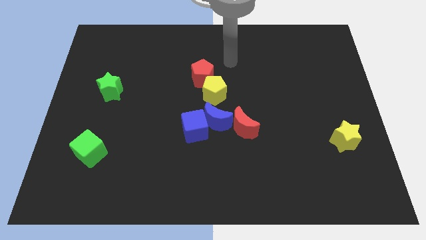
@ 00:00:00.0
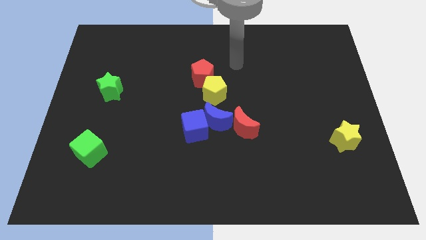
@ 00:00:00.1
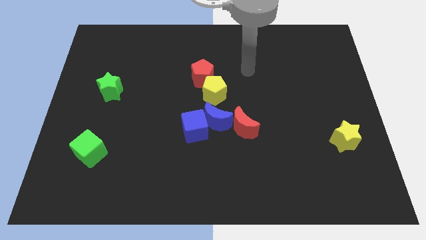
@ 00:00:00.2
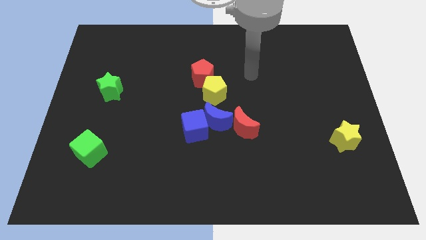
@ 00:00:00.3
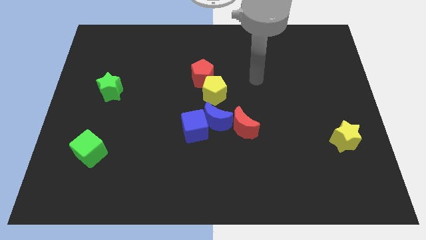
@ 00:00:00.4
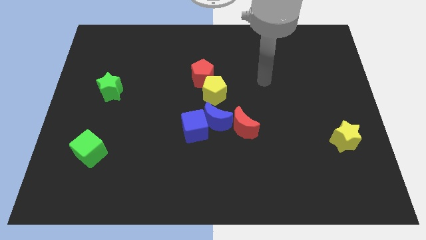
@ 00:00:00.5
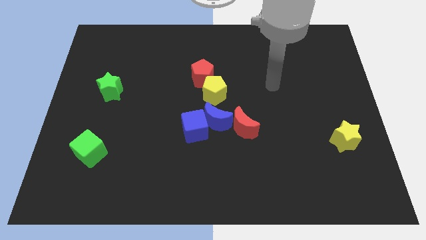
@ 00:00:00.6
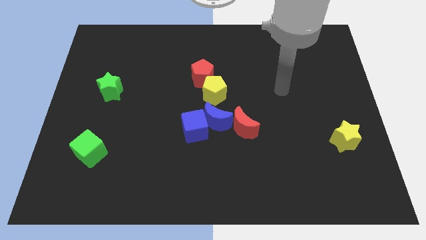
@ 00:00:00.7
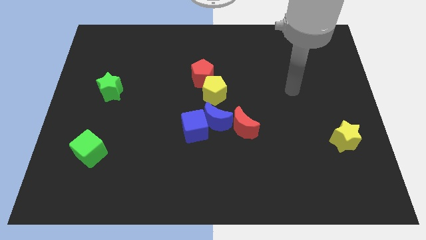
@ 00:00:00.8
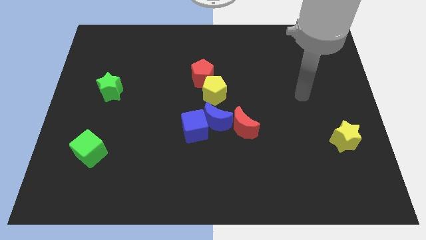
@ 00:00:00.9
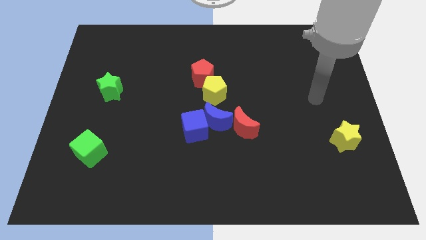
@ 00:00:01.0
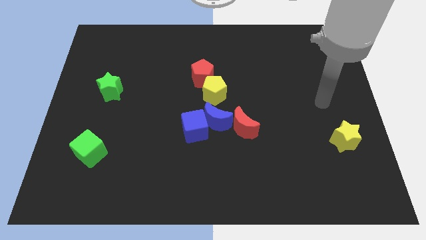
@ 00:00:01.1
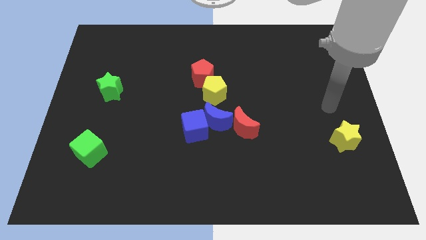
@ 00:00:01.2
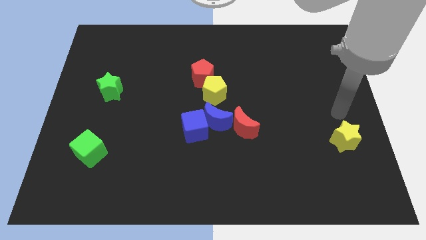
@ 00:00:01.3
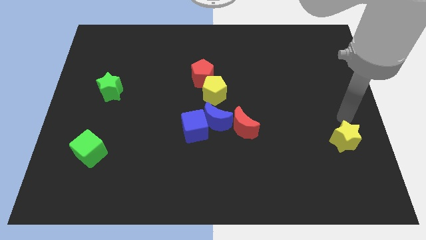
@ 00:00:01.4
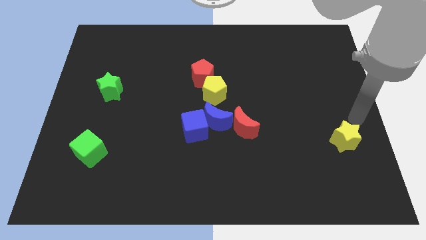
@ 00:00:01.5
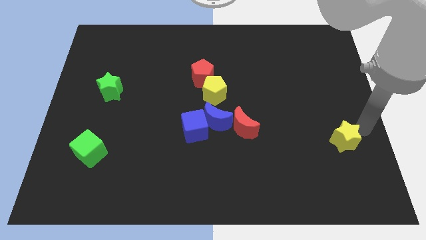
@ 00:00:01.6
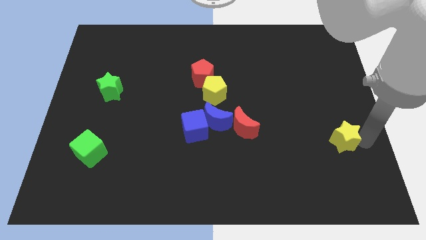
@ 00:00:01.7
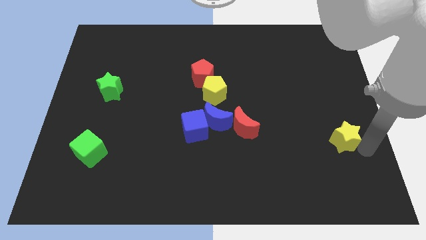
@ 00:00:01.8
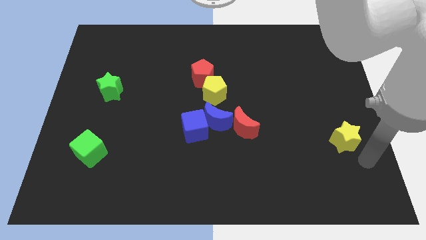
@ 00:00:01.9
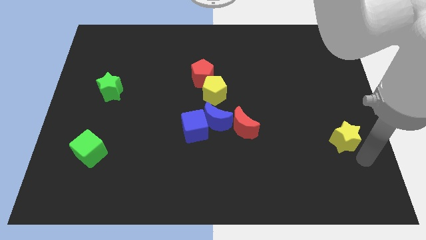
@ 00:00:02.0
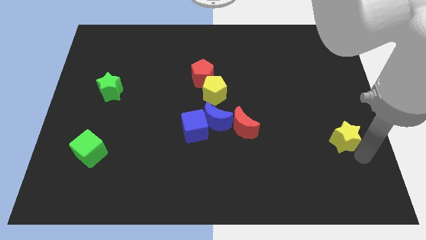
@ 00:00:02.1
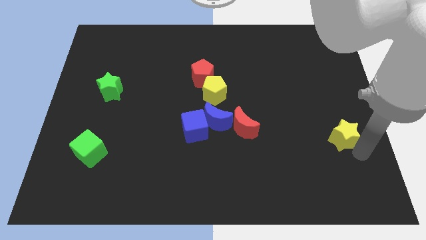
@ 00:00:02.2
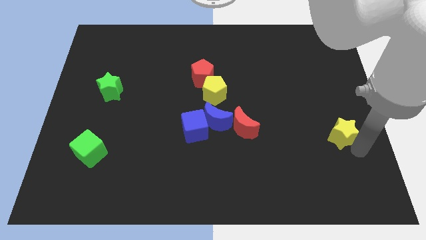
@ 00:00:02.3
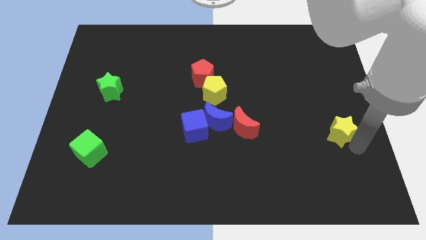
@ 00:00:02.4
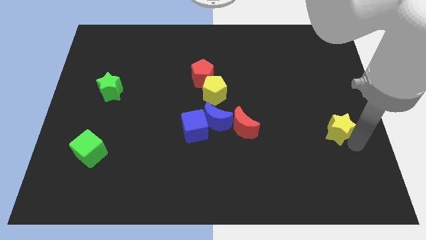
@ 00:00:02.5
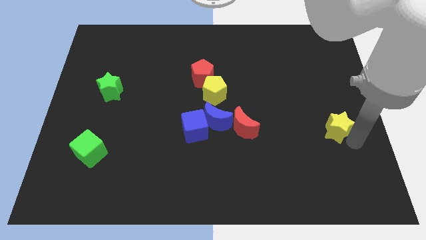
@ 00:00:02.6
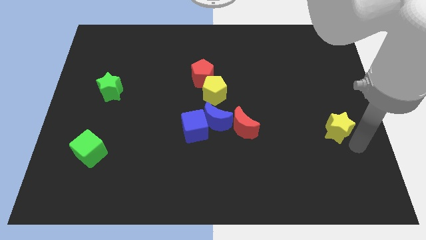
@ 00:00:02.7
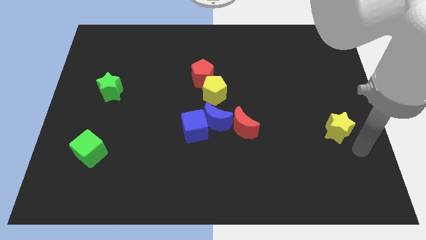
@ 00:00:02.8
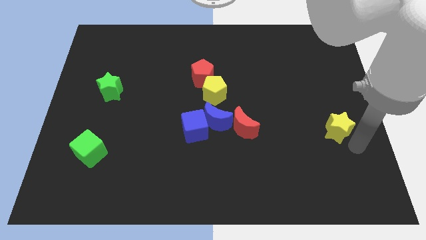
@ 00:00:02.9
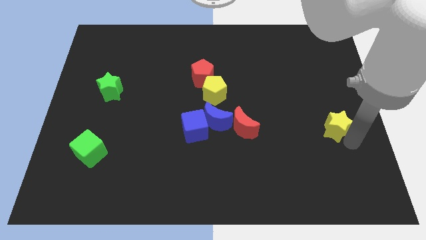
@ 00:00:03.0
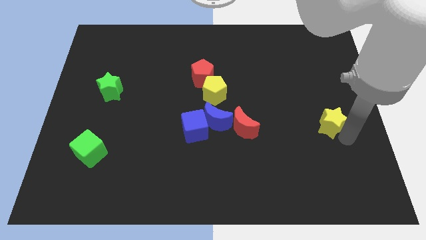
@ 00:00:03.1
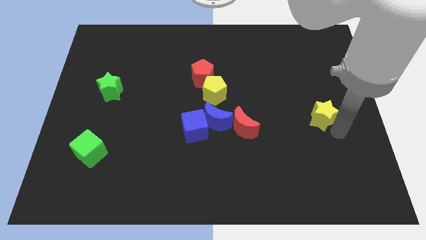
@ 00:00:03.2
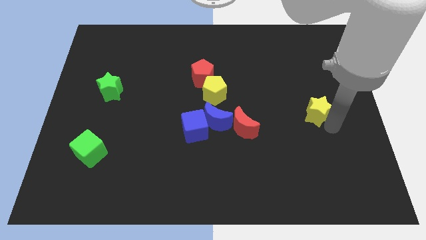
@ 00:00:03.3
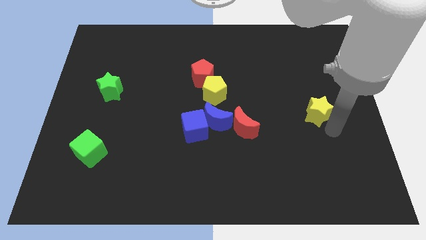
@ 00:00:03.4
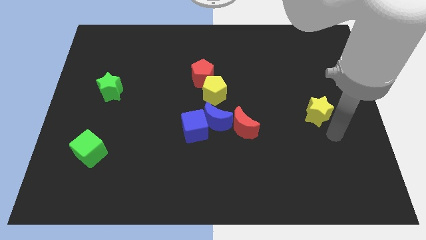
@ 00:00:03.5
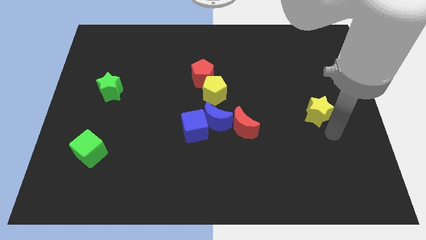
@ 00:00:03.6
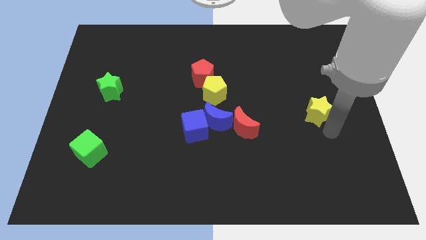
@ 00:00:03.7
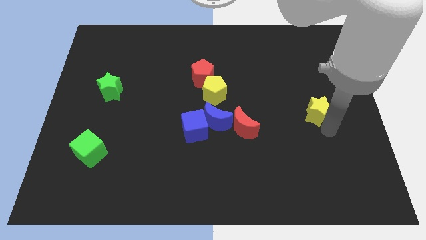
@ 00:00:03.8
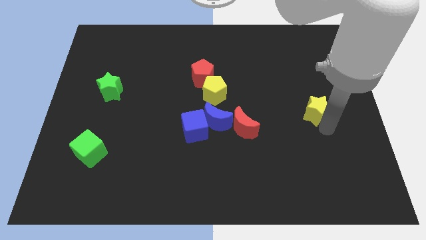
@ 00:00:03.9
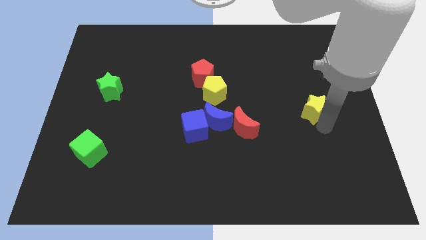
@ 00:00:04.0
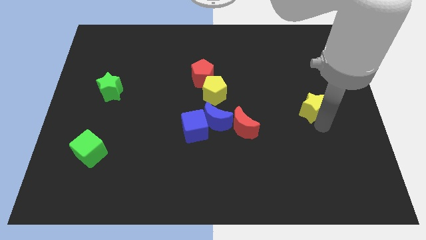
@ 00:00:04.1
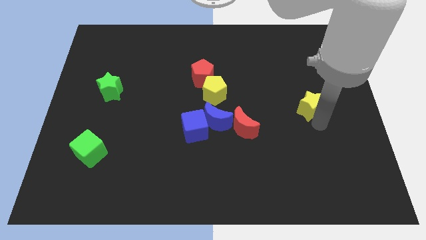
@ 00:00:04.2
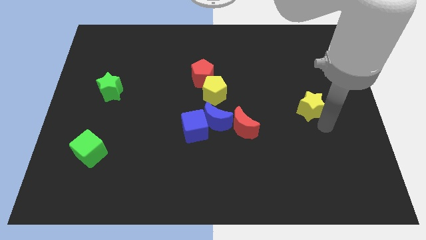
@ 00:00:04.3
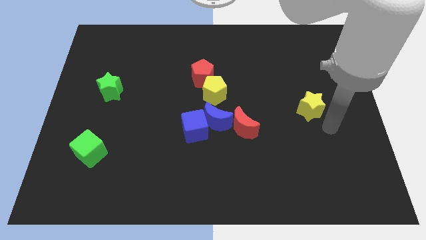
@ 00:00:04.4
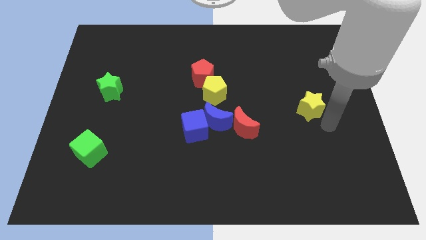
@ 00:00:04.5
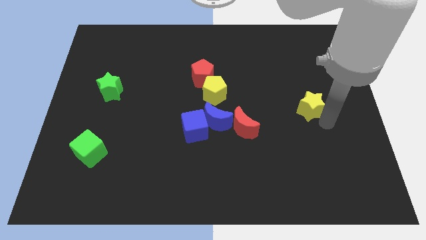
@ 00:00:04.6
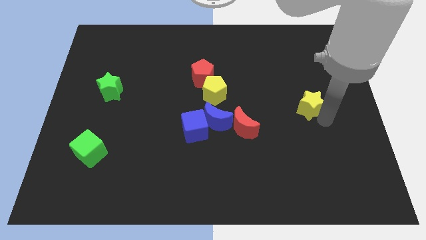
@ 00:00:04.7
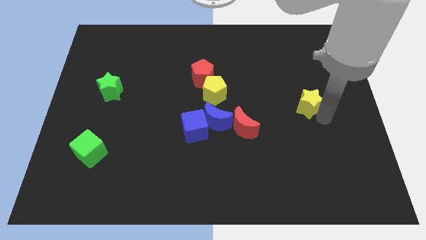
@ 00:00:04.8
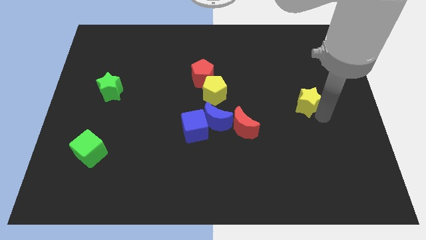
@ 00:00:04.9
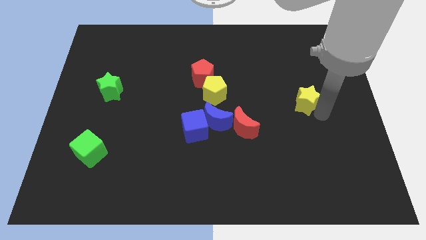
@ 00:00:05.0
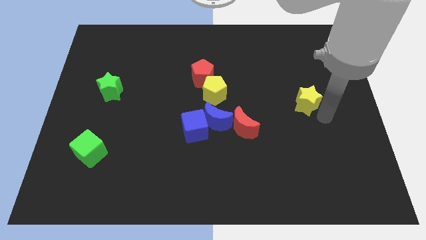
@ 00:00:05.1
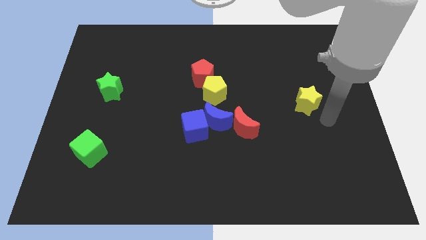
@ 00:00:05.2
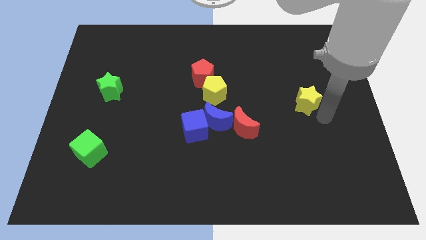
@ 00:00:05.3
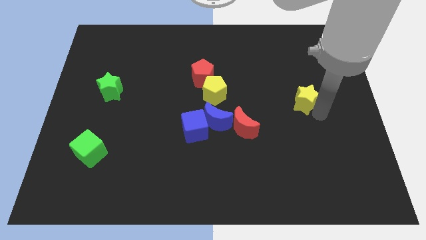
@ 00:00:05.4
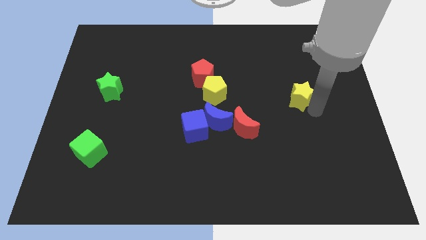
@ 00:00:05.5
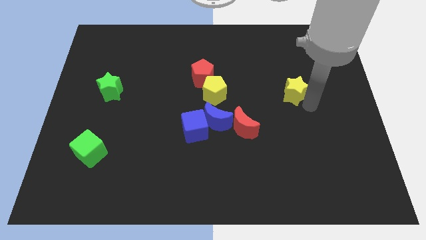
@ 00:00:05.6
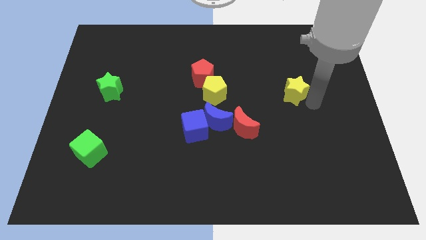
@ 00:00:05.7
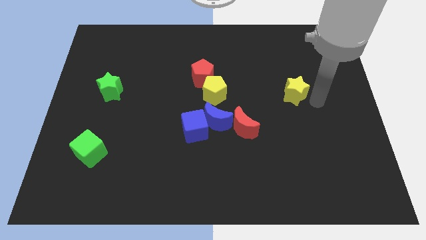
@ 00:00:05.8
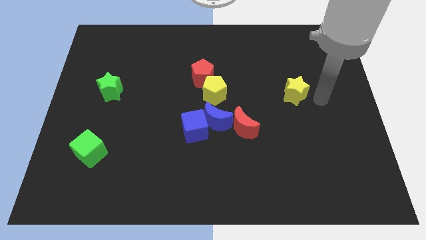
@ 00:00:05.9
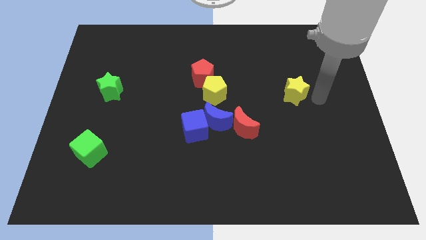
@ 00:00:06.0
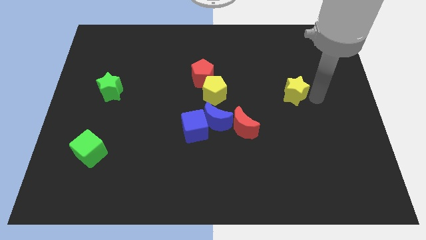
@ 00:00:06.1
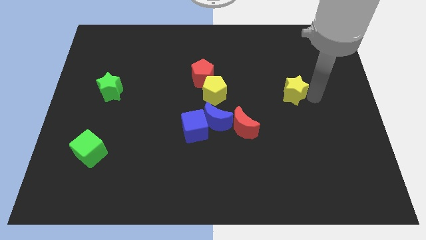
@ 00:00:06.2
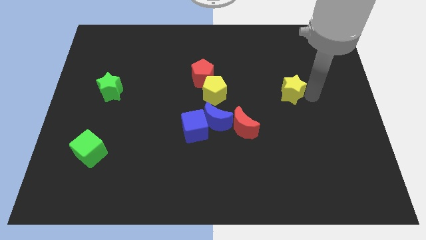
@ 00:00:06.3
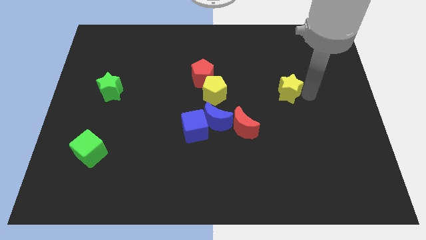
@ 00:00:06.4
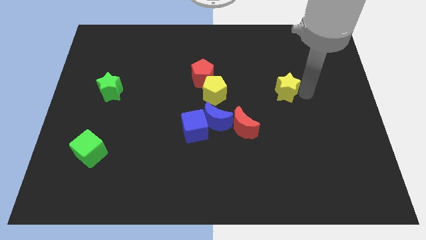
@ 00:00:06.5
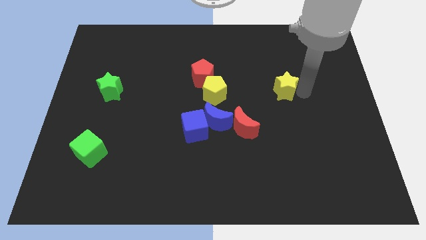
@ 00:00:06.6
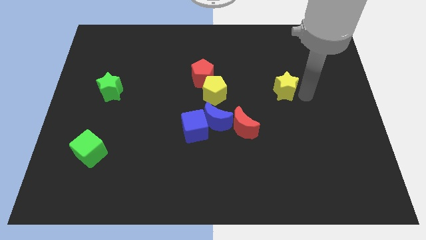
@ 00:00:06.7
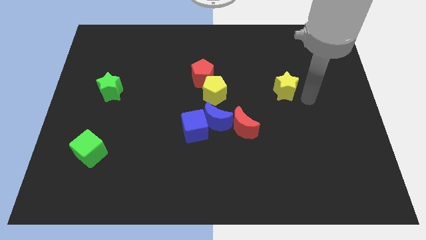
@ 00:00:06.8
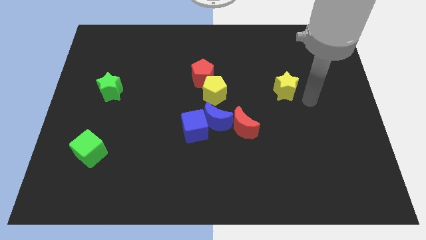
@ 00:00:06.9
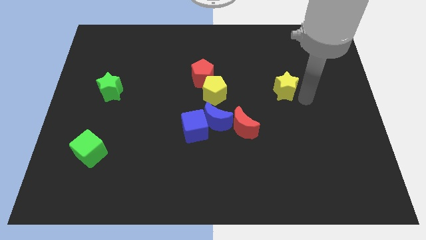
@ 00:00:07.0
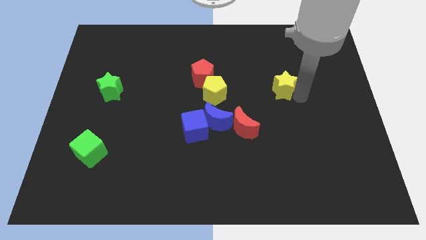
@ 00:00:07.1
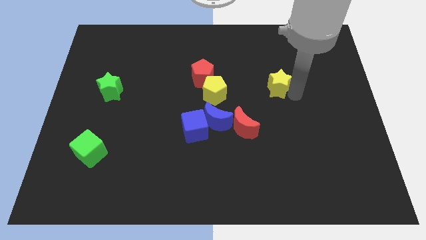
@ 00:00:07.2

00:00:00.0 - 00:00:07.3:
move the yellow star diagonally upwards and to the left

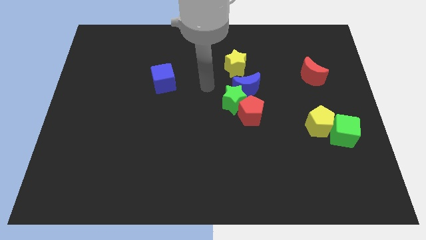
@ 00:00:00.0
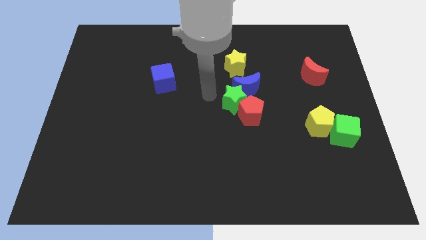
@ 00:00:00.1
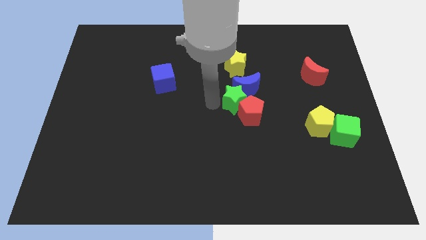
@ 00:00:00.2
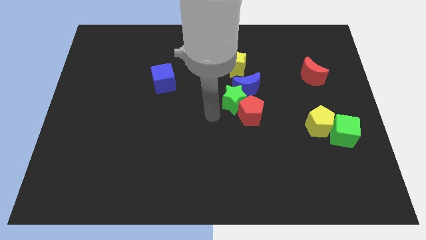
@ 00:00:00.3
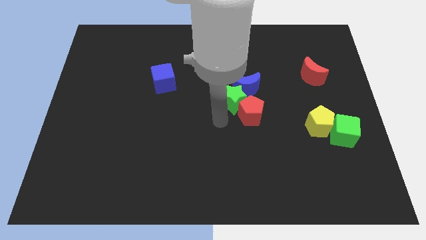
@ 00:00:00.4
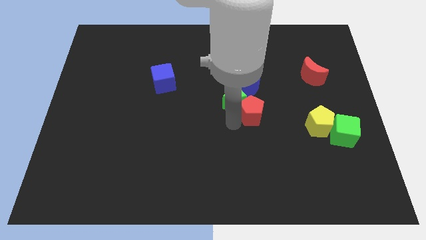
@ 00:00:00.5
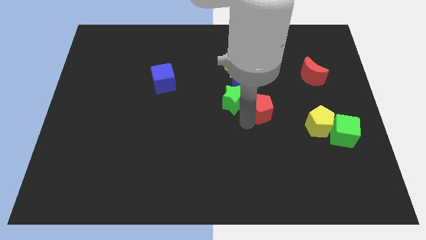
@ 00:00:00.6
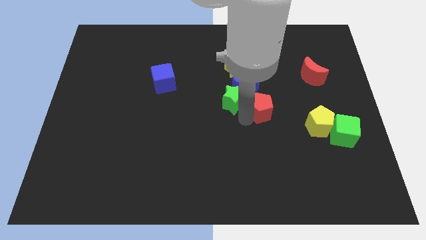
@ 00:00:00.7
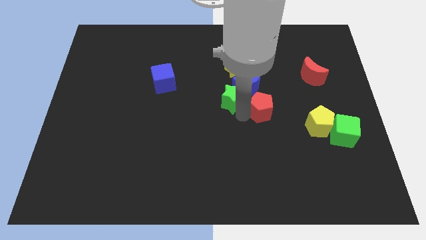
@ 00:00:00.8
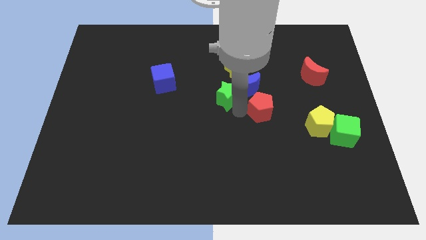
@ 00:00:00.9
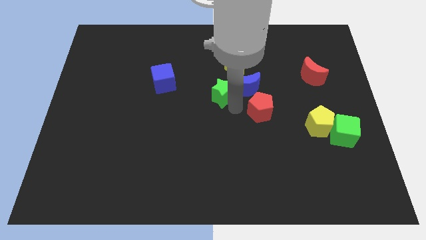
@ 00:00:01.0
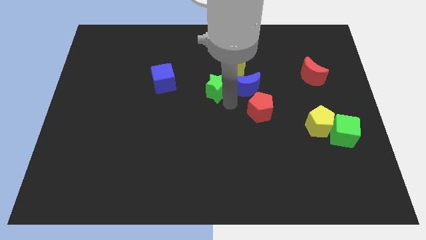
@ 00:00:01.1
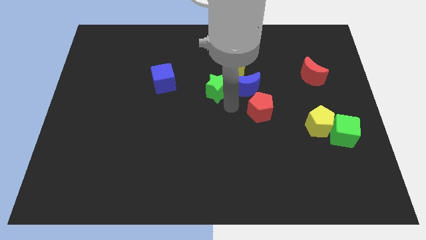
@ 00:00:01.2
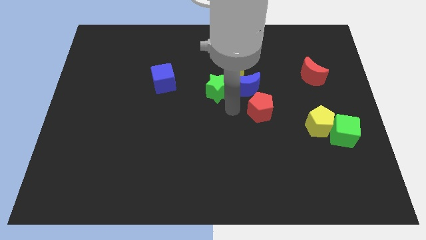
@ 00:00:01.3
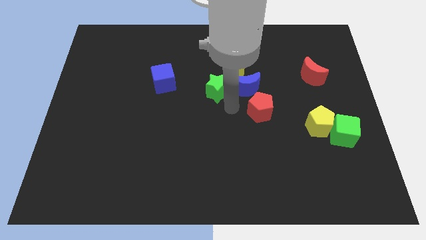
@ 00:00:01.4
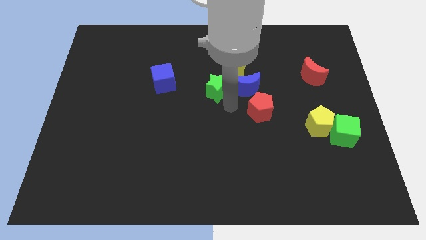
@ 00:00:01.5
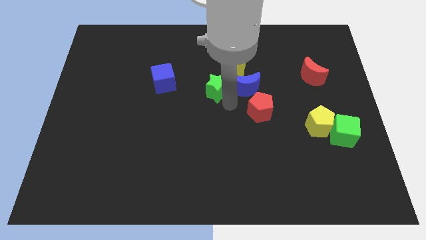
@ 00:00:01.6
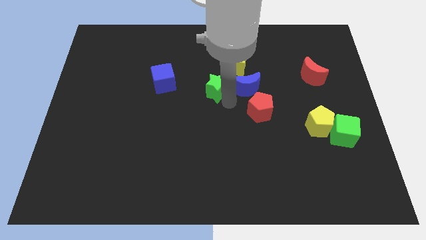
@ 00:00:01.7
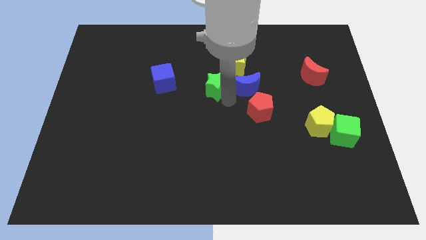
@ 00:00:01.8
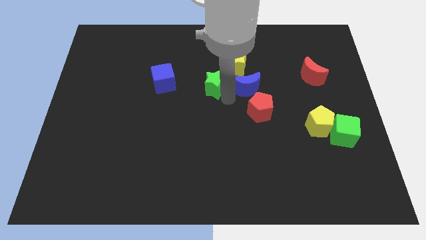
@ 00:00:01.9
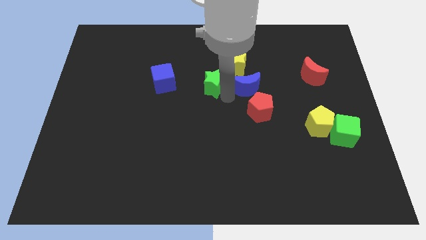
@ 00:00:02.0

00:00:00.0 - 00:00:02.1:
slightly push the green star upwards and then to the left
